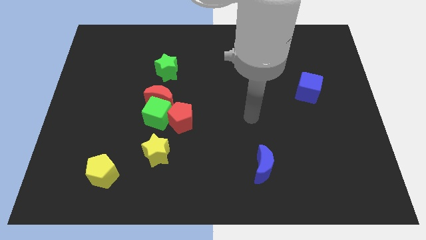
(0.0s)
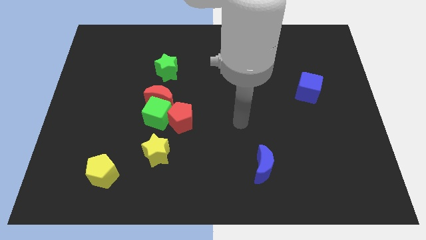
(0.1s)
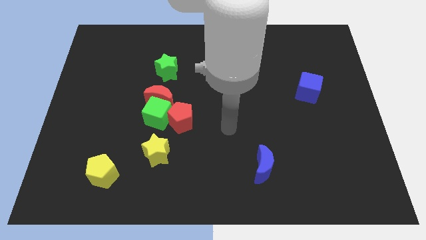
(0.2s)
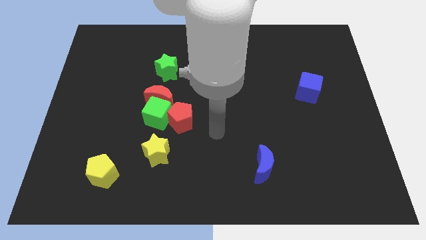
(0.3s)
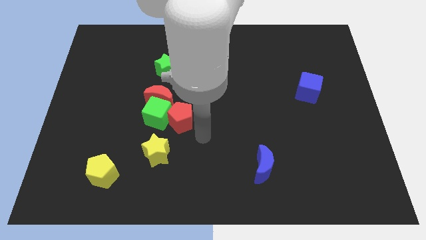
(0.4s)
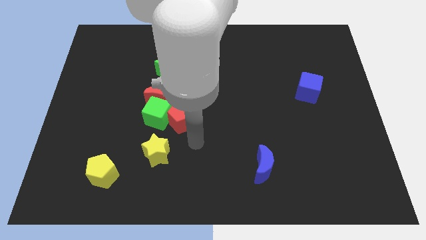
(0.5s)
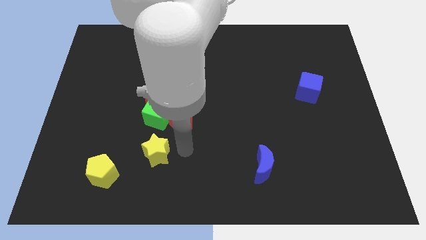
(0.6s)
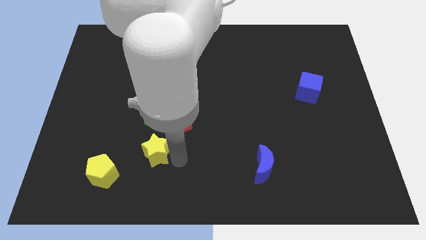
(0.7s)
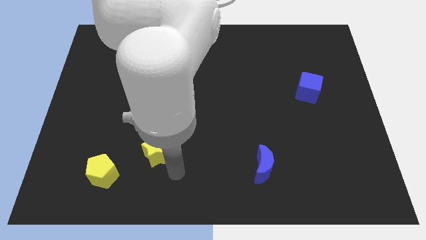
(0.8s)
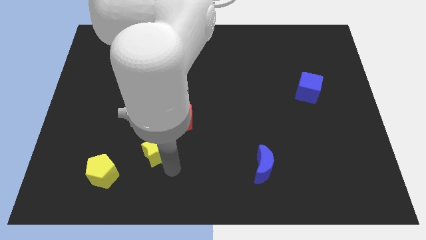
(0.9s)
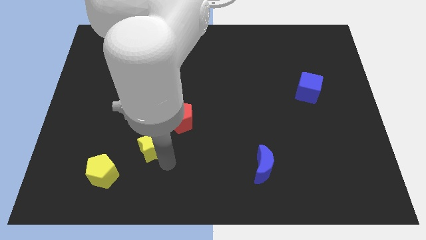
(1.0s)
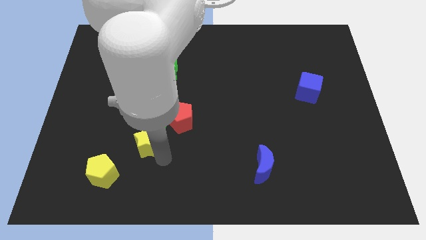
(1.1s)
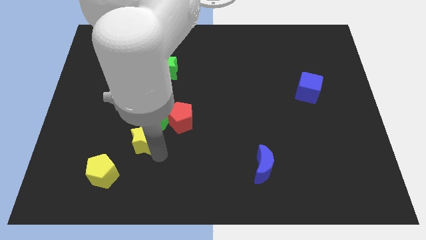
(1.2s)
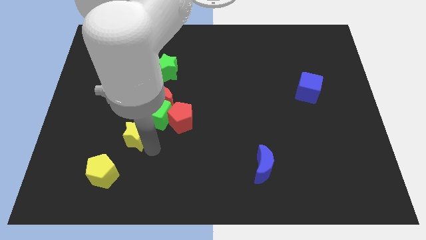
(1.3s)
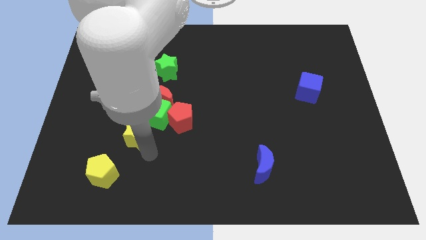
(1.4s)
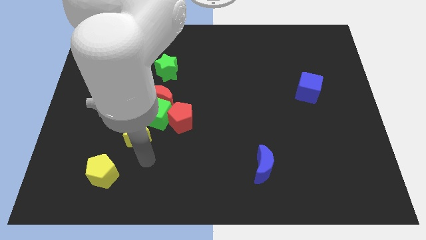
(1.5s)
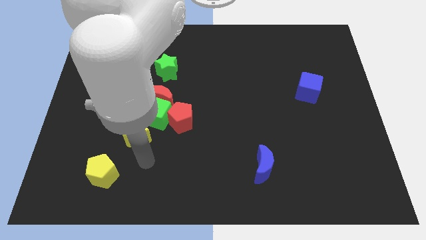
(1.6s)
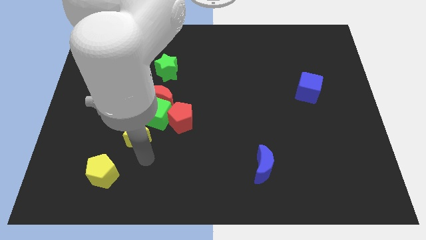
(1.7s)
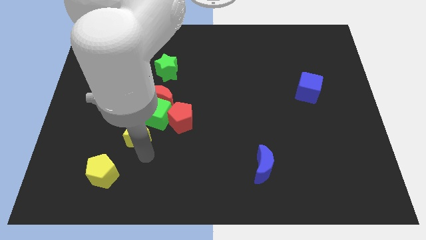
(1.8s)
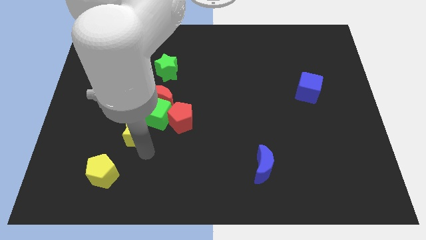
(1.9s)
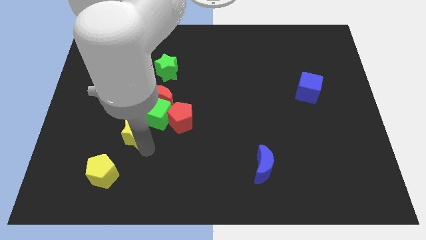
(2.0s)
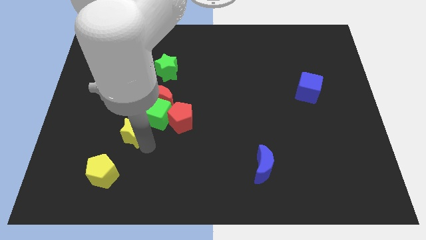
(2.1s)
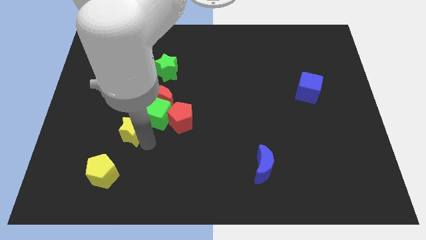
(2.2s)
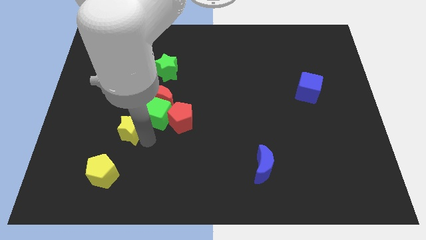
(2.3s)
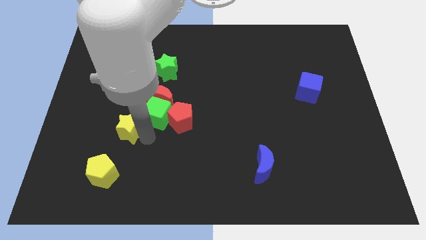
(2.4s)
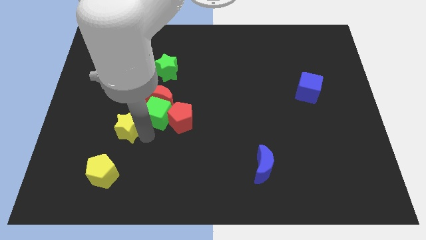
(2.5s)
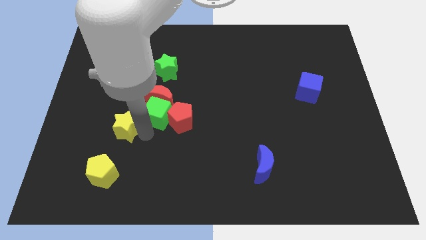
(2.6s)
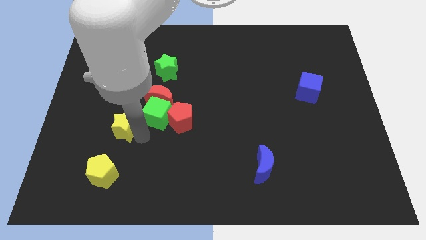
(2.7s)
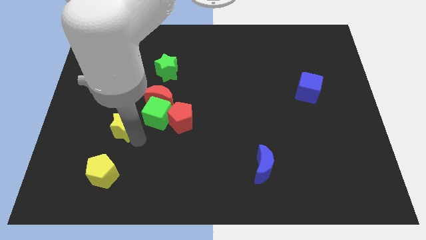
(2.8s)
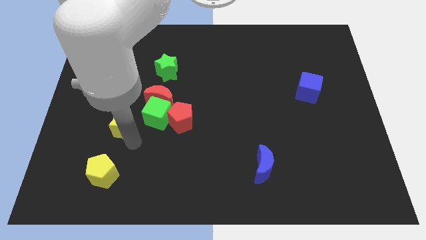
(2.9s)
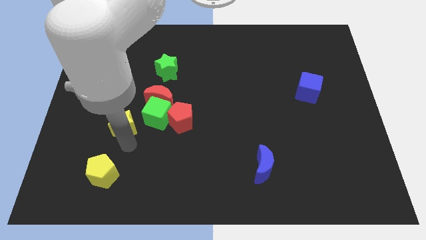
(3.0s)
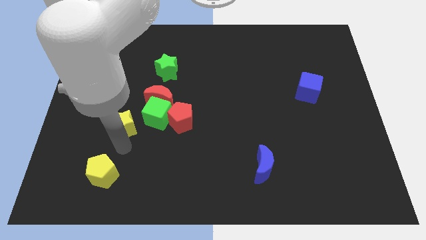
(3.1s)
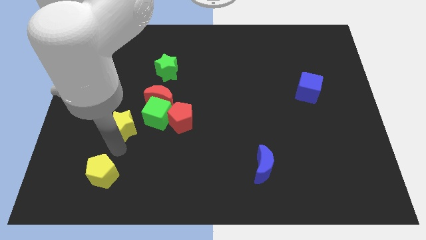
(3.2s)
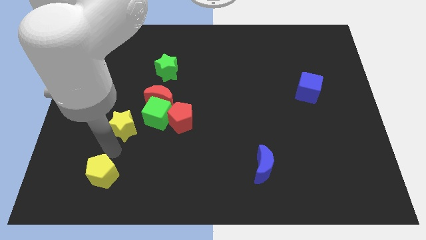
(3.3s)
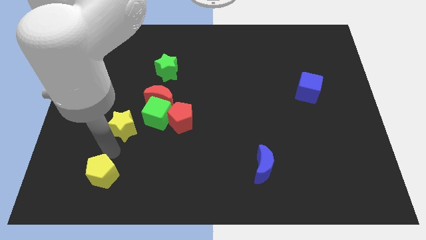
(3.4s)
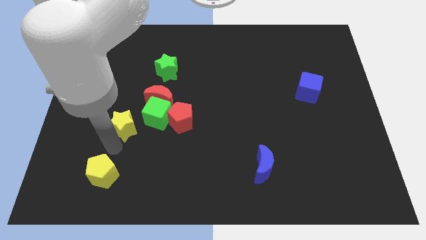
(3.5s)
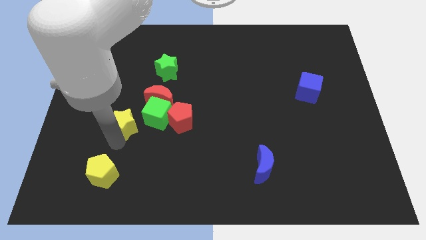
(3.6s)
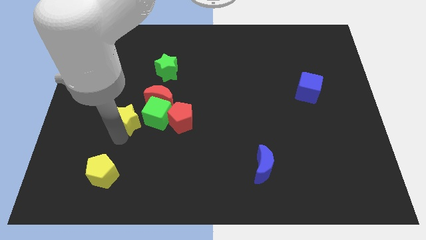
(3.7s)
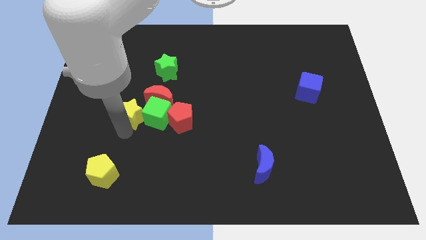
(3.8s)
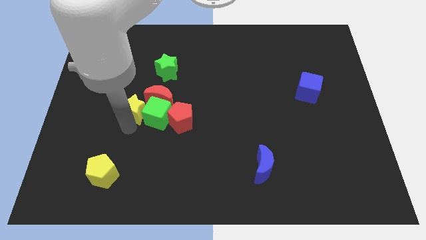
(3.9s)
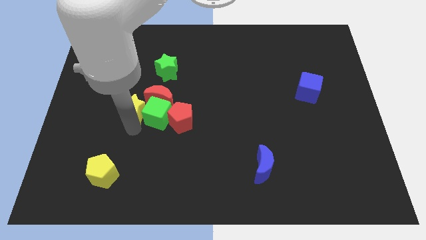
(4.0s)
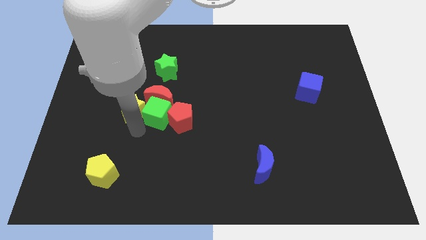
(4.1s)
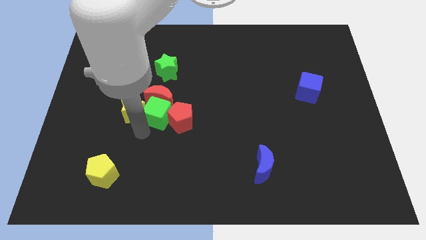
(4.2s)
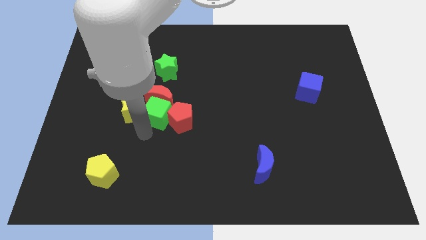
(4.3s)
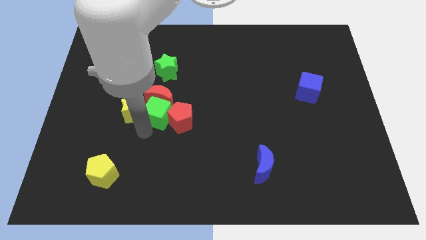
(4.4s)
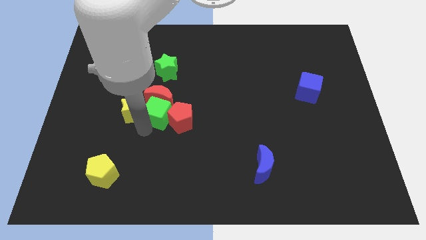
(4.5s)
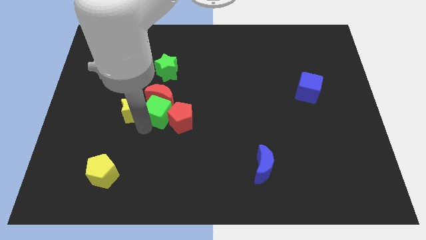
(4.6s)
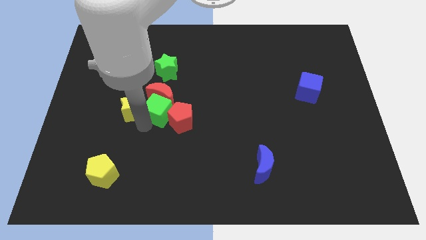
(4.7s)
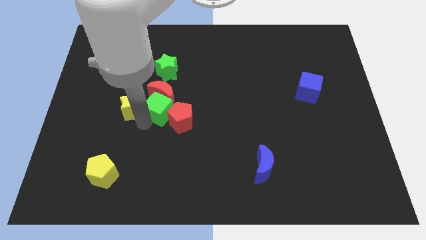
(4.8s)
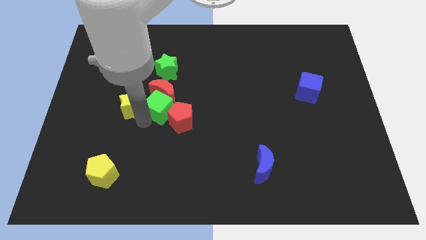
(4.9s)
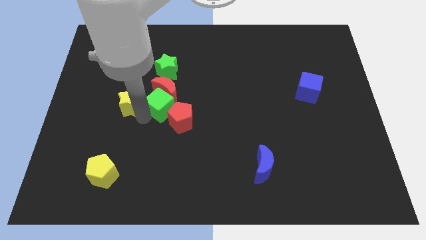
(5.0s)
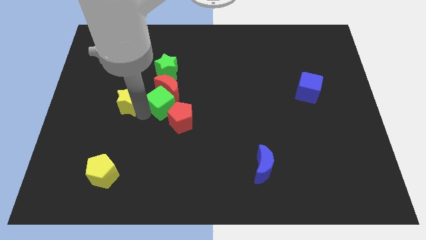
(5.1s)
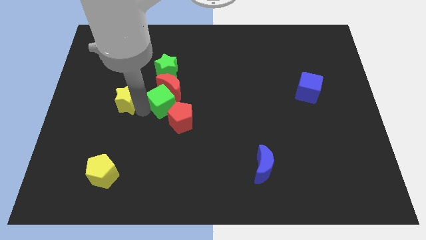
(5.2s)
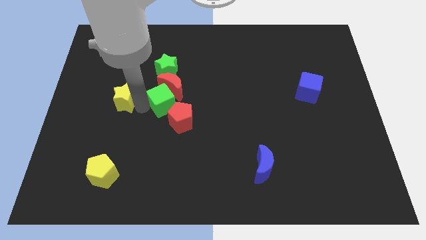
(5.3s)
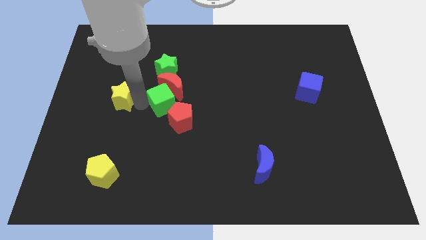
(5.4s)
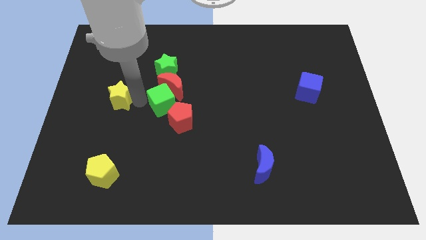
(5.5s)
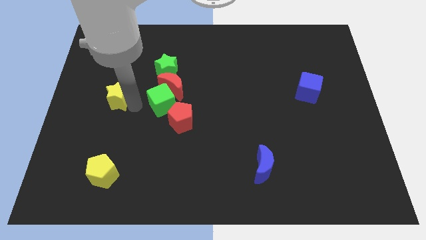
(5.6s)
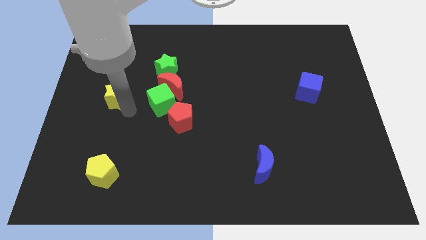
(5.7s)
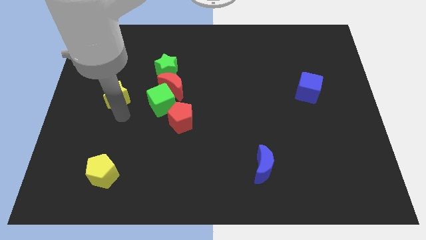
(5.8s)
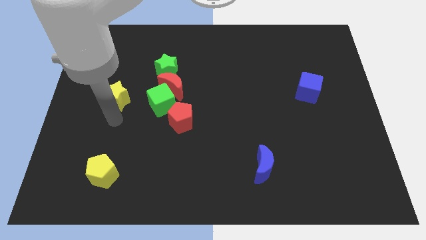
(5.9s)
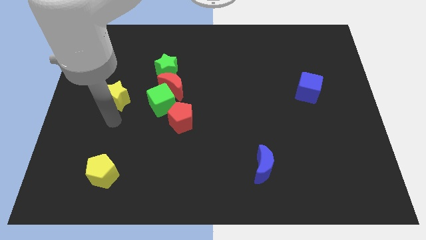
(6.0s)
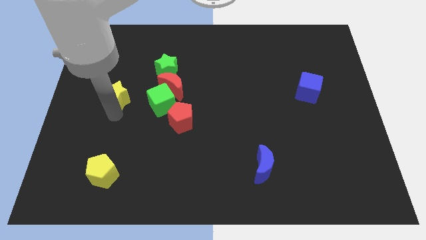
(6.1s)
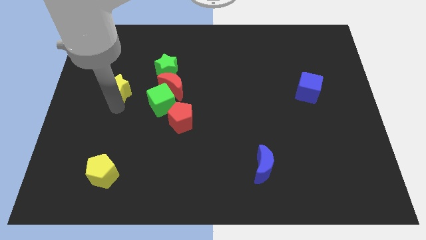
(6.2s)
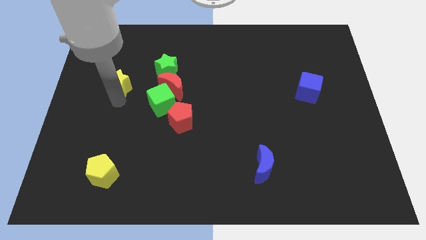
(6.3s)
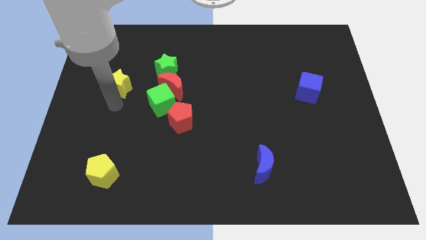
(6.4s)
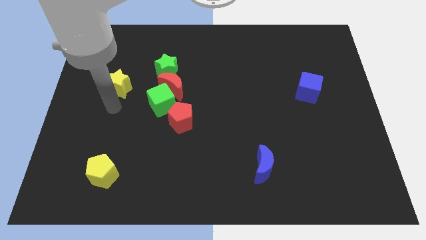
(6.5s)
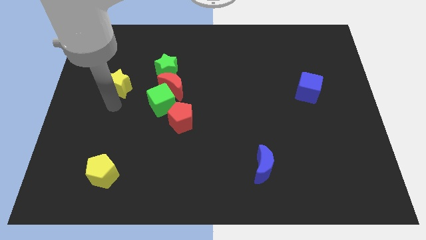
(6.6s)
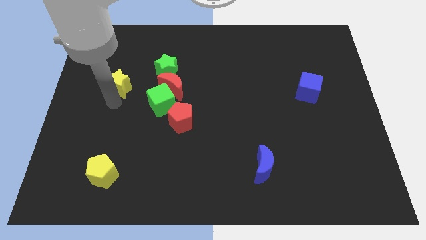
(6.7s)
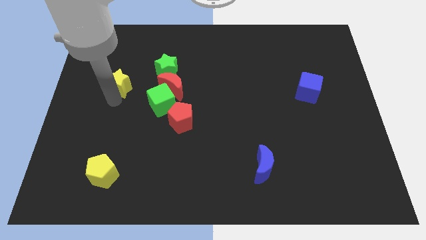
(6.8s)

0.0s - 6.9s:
slide the yellow star to the left side of the green star

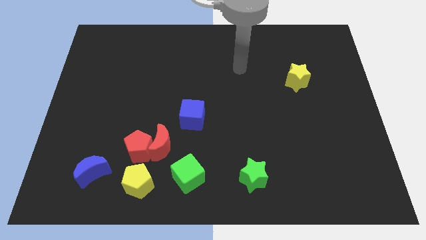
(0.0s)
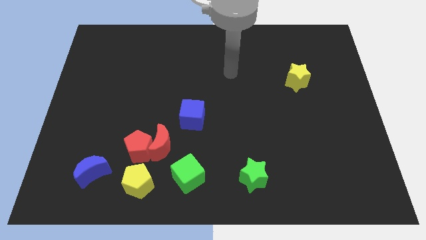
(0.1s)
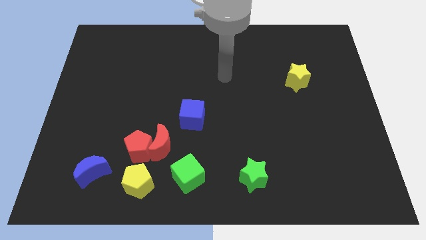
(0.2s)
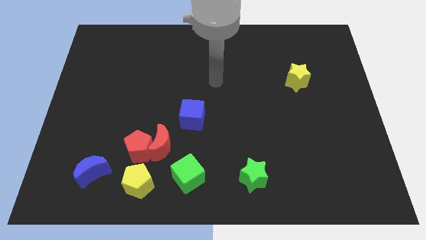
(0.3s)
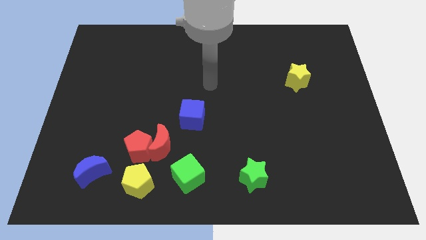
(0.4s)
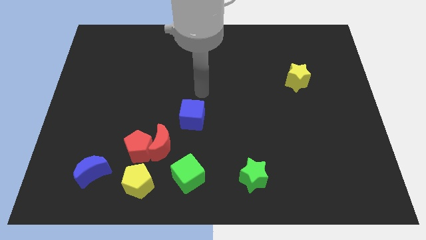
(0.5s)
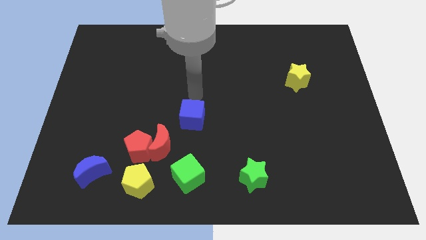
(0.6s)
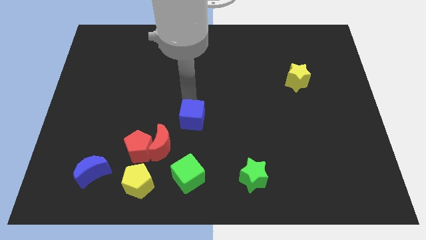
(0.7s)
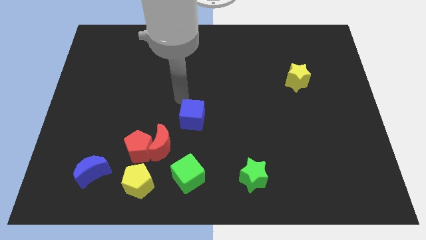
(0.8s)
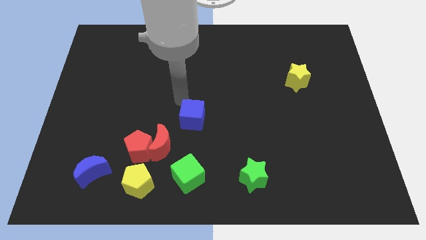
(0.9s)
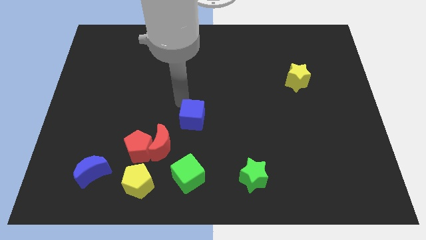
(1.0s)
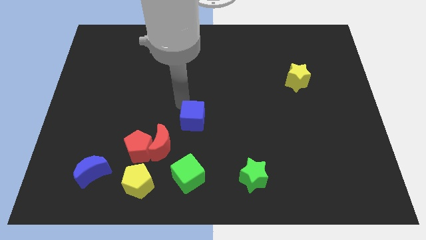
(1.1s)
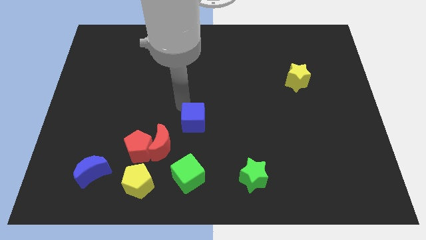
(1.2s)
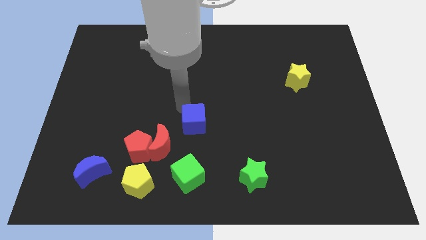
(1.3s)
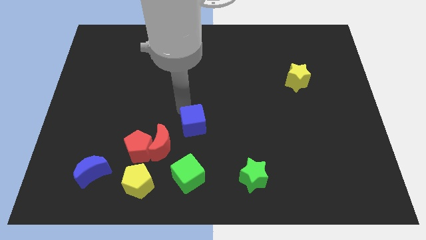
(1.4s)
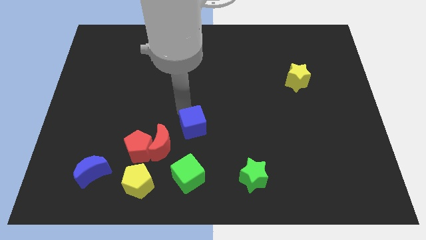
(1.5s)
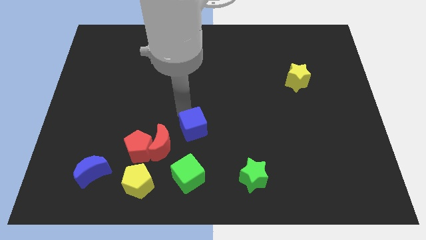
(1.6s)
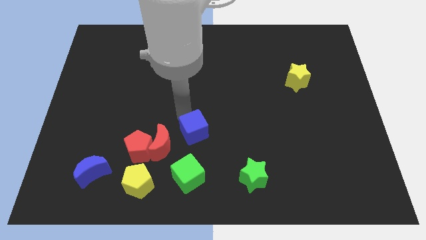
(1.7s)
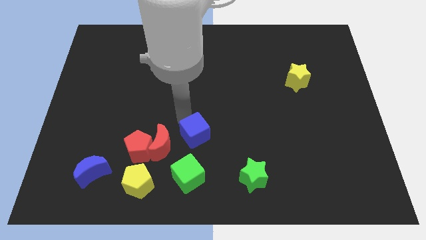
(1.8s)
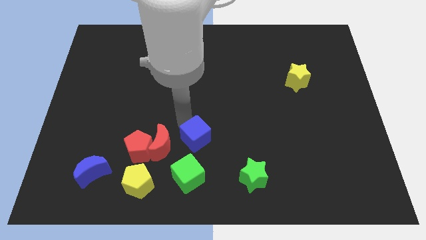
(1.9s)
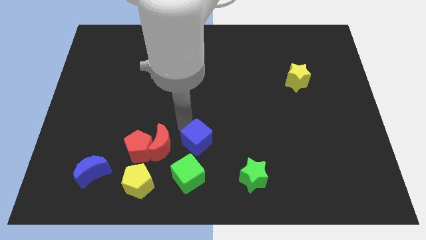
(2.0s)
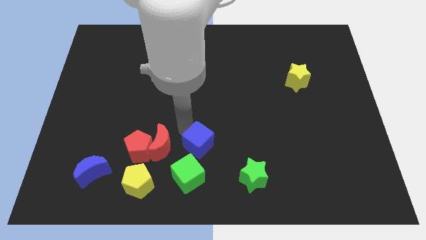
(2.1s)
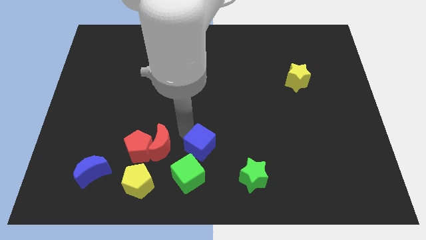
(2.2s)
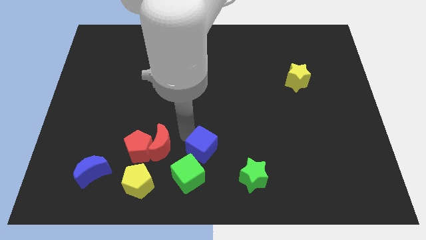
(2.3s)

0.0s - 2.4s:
push the blue cube to the top left side of the green star
